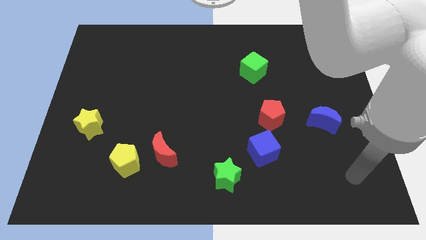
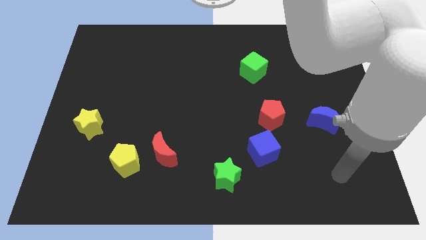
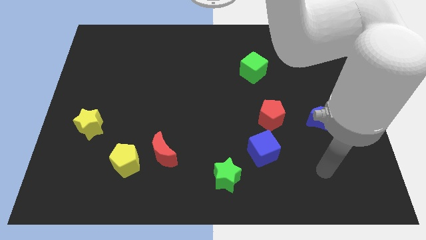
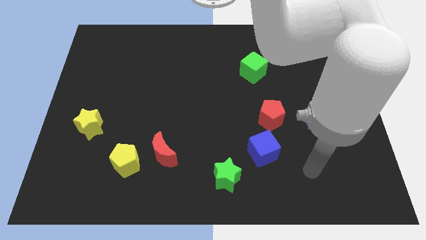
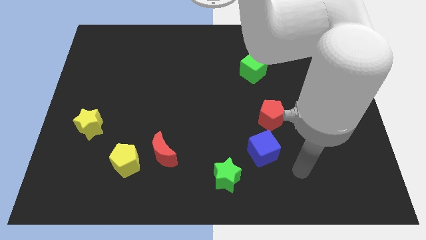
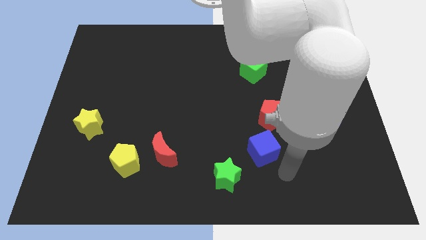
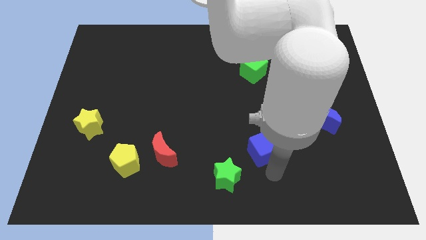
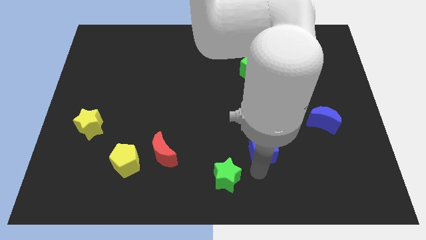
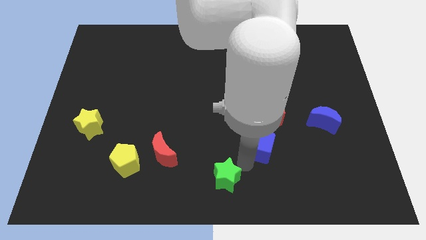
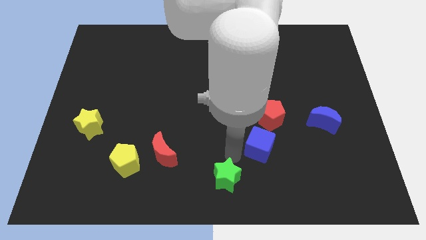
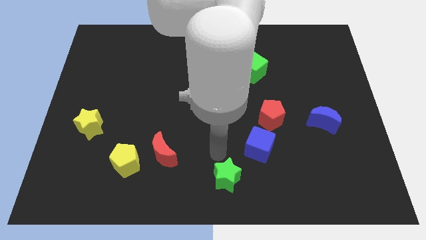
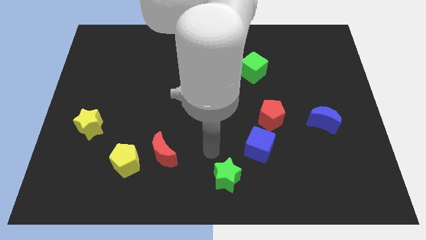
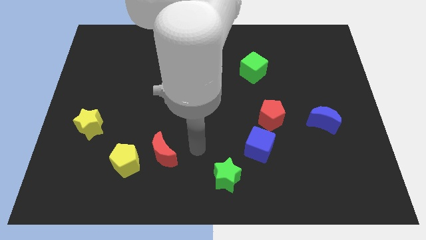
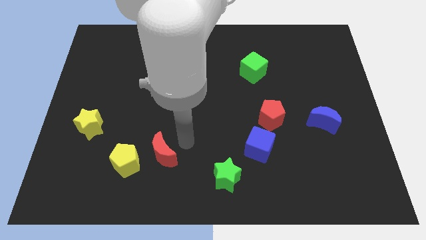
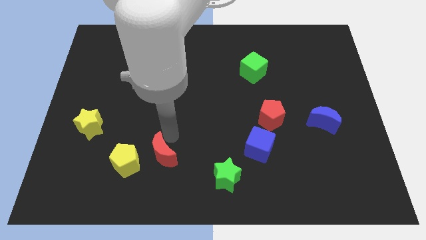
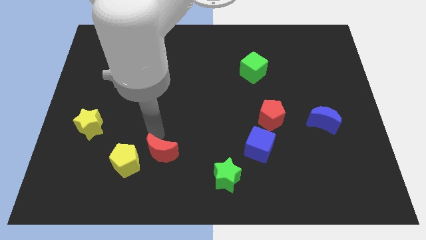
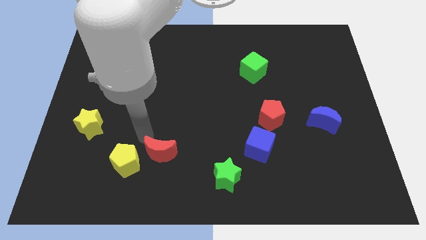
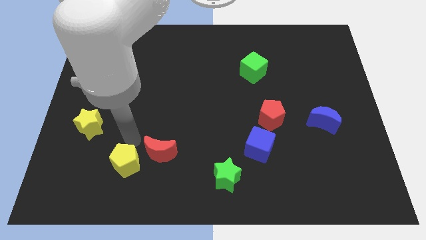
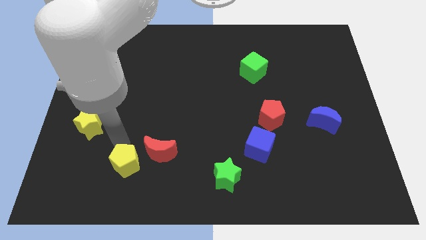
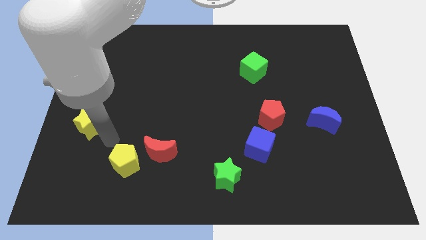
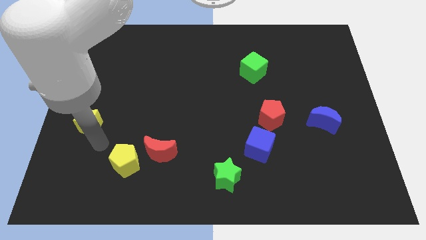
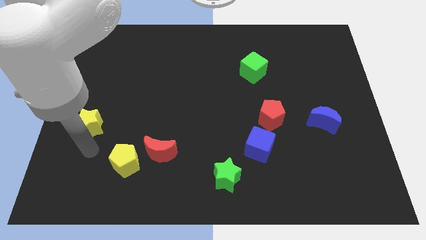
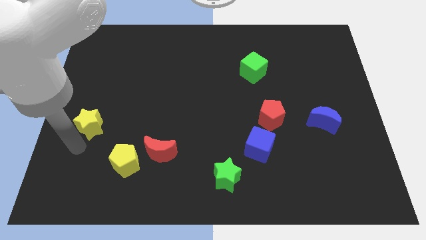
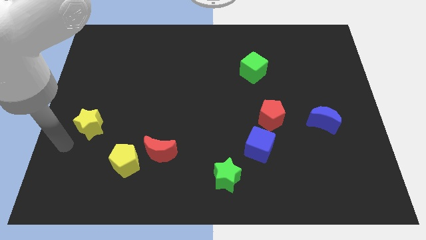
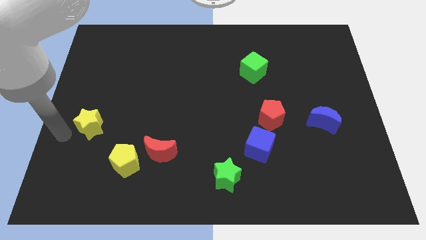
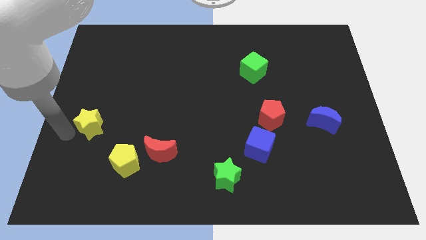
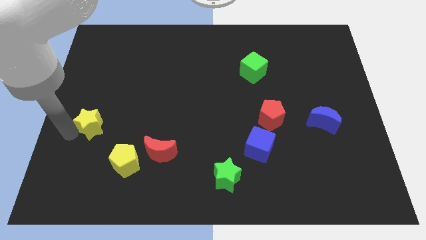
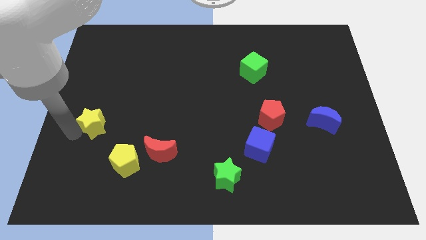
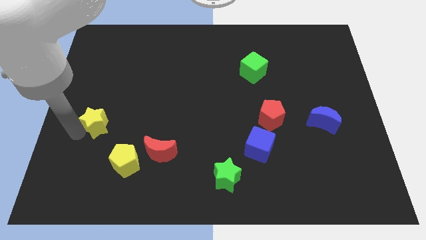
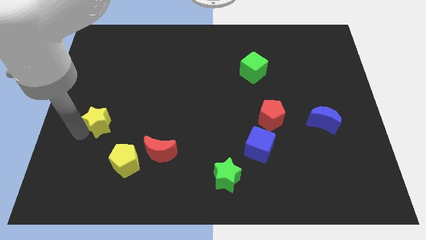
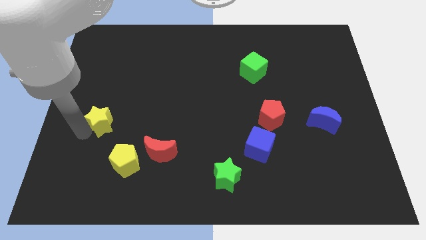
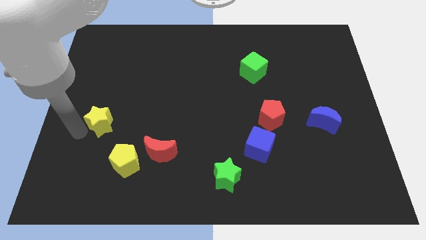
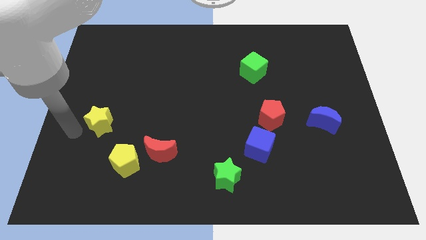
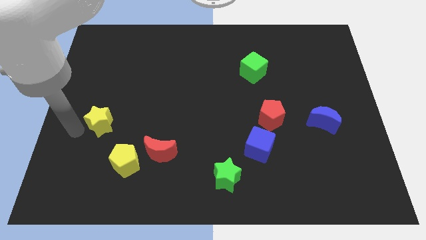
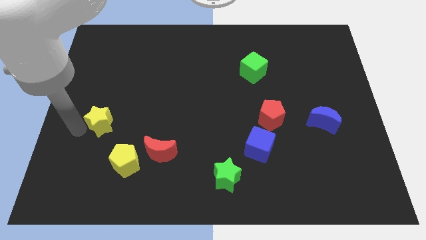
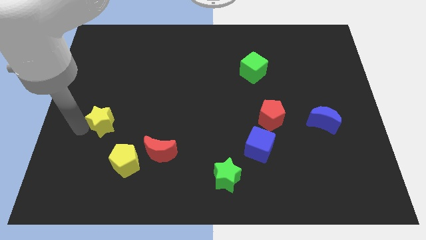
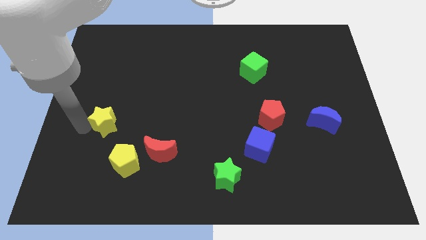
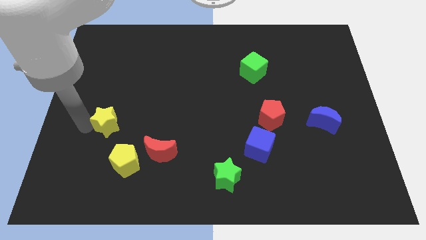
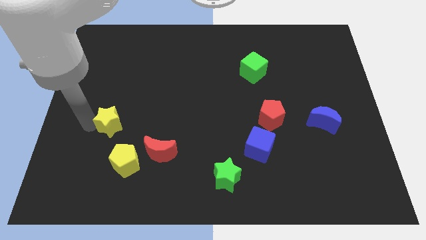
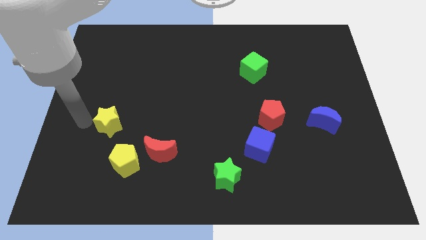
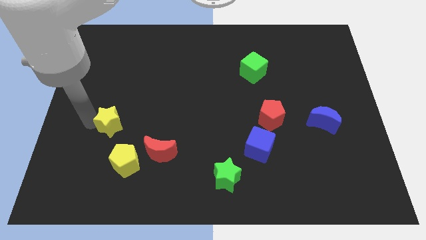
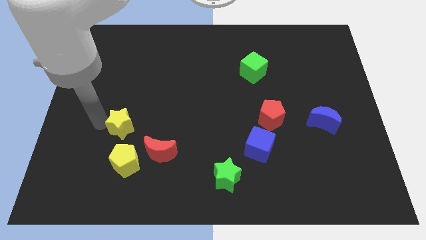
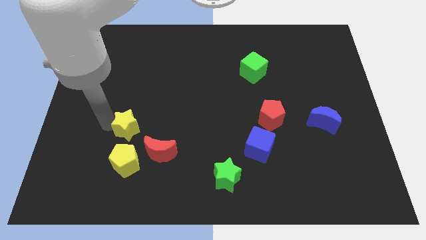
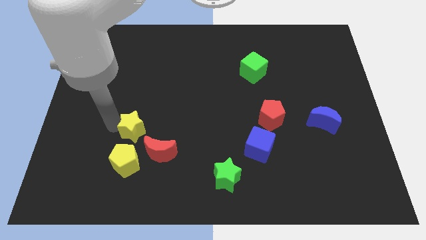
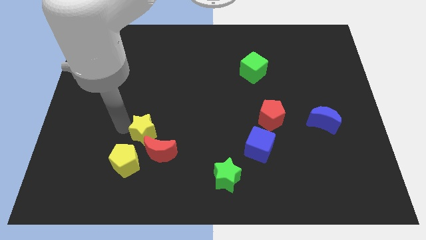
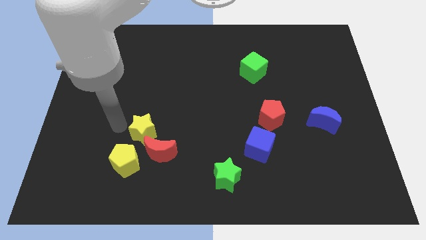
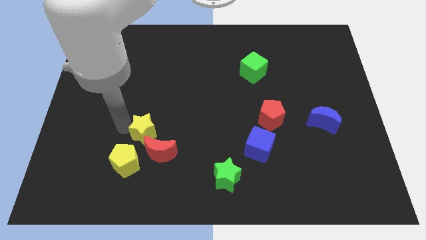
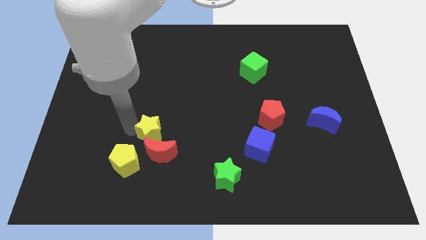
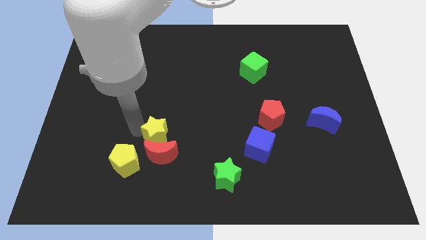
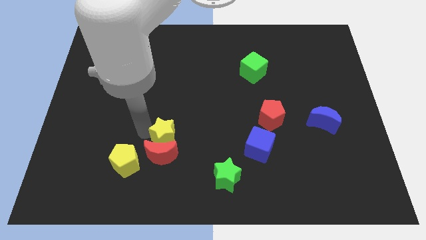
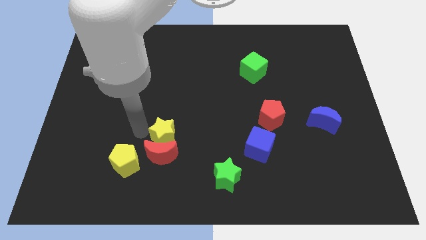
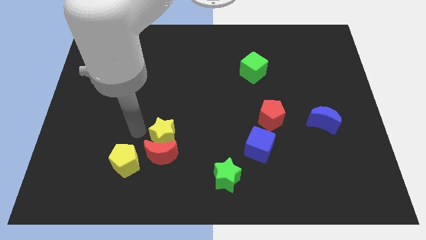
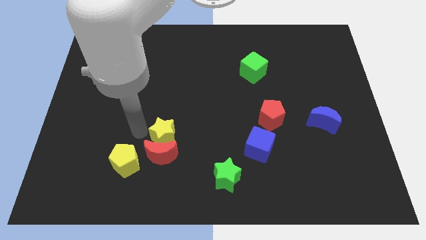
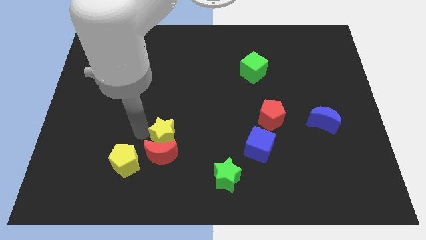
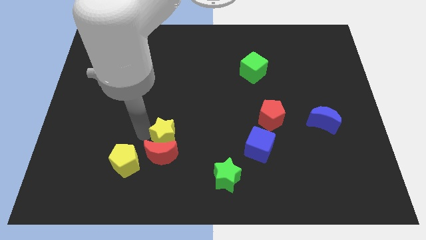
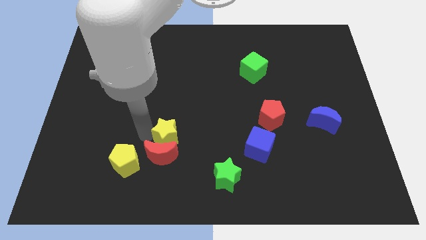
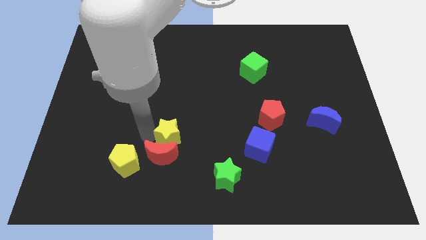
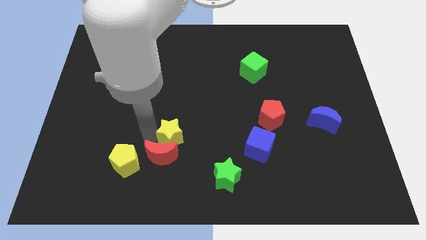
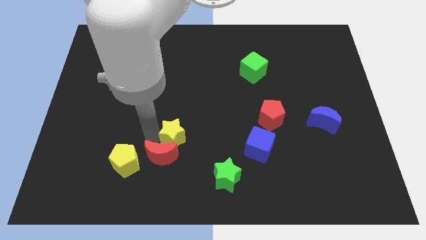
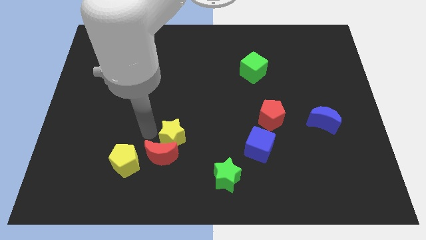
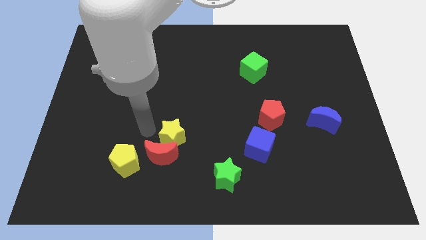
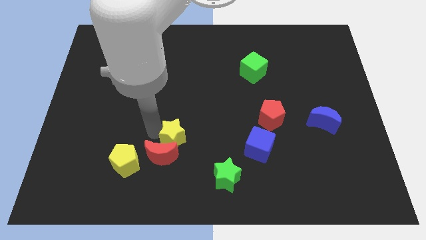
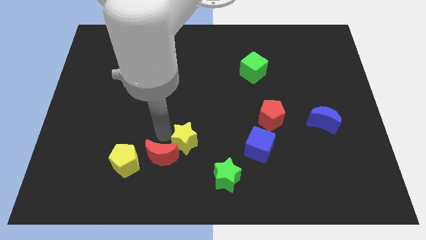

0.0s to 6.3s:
move the yellow star just left of the blue cube
